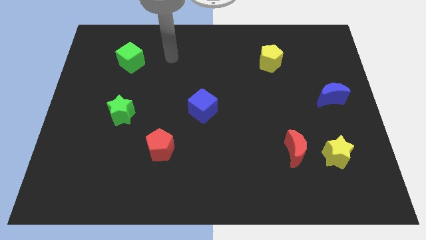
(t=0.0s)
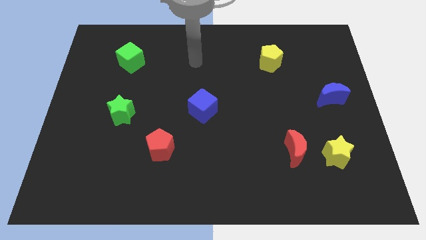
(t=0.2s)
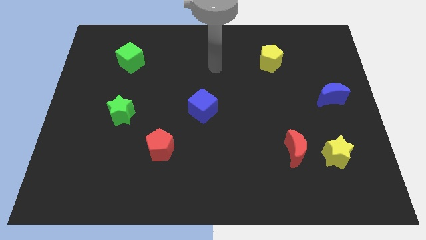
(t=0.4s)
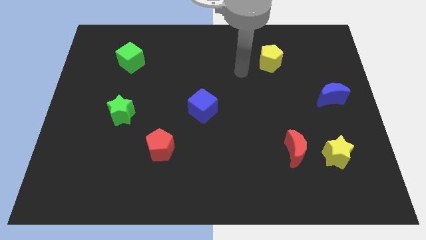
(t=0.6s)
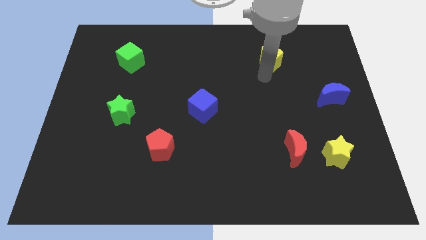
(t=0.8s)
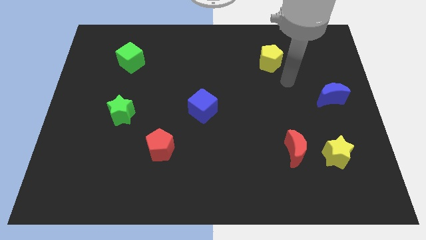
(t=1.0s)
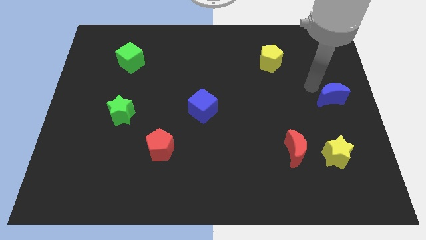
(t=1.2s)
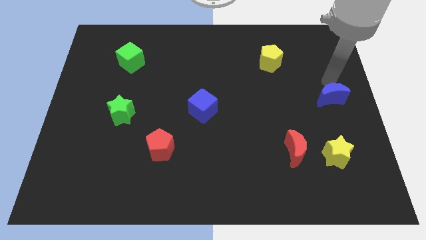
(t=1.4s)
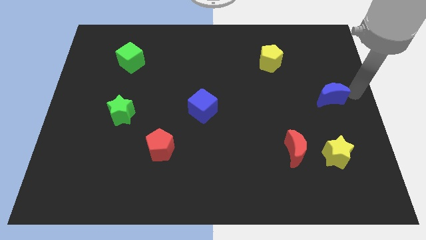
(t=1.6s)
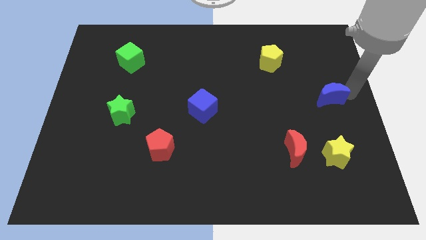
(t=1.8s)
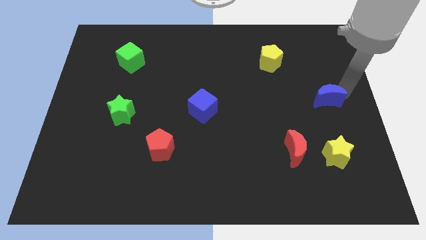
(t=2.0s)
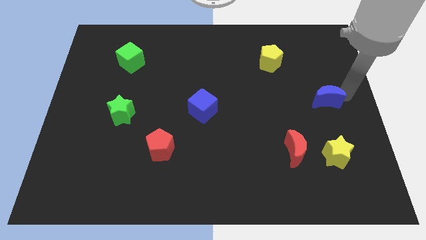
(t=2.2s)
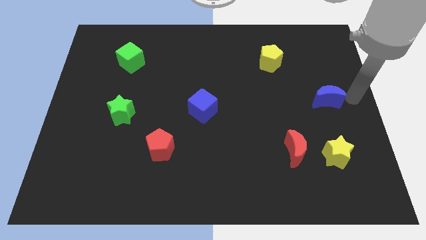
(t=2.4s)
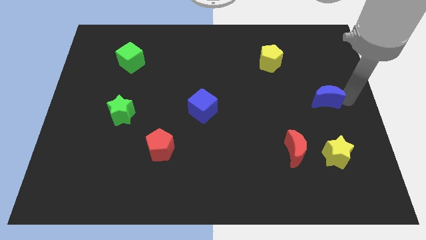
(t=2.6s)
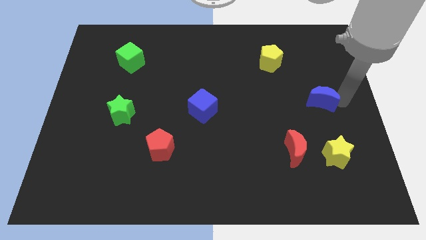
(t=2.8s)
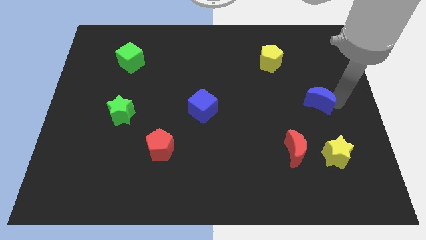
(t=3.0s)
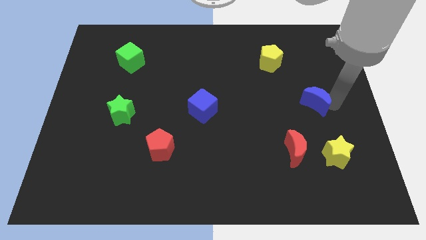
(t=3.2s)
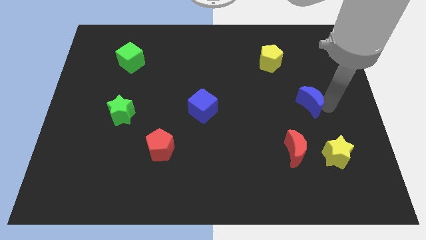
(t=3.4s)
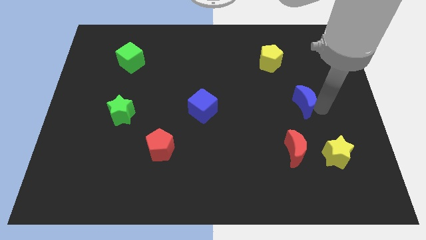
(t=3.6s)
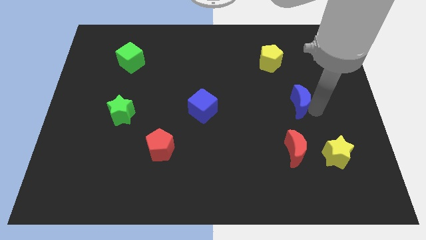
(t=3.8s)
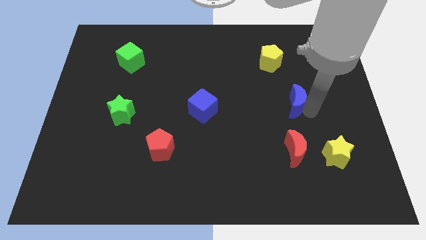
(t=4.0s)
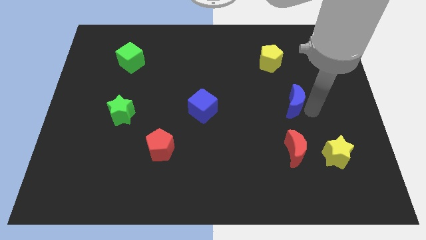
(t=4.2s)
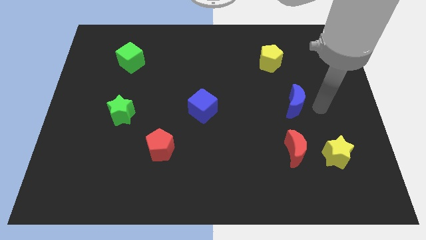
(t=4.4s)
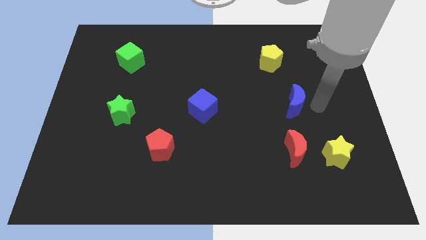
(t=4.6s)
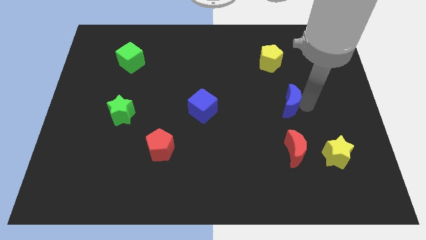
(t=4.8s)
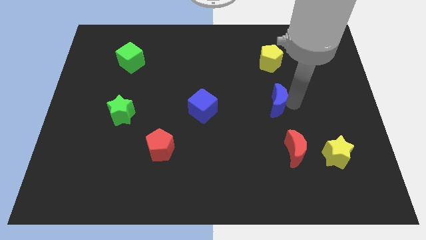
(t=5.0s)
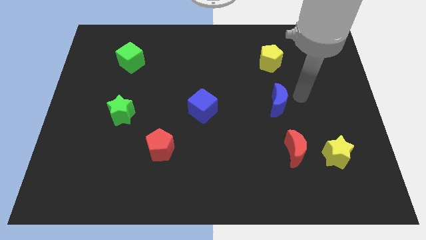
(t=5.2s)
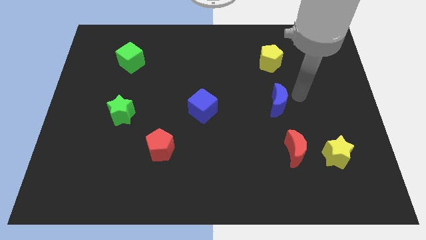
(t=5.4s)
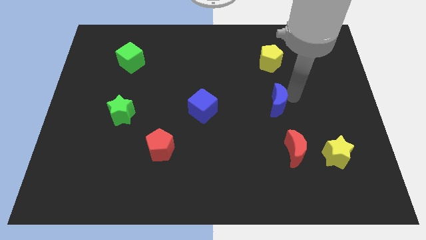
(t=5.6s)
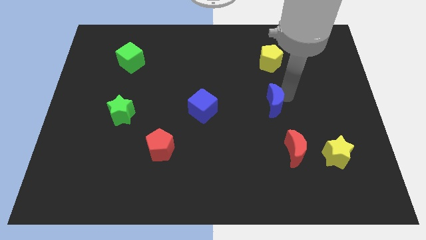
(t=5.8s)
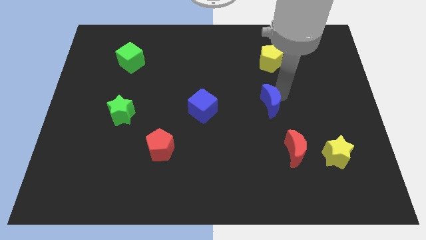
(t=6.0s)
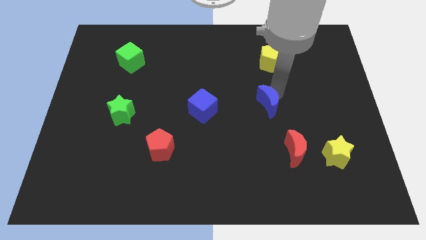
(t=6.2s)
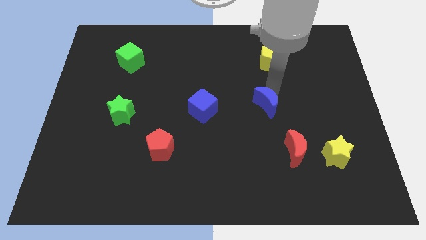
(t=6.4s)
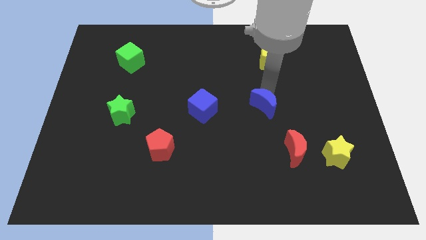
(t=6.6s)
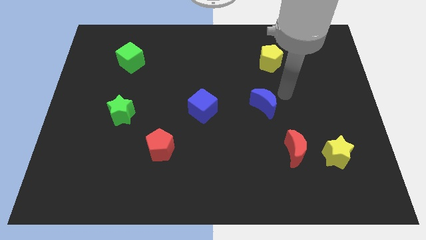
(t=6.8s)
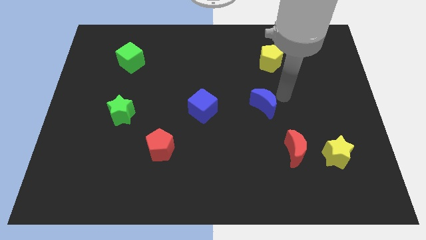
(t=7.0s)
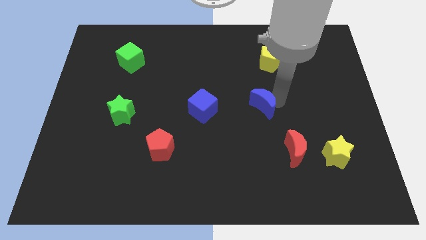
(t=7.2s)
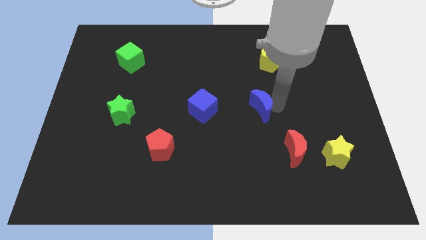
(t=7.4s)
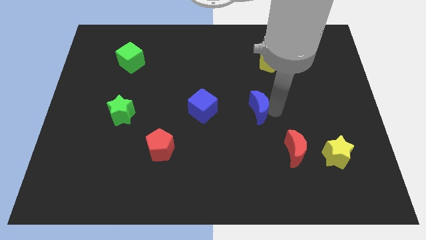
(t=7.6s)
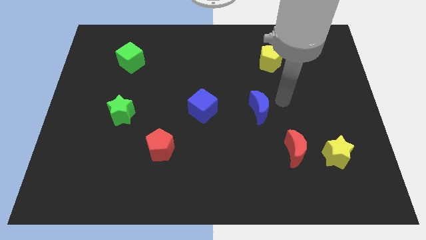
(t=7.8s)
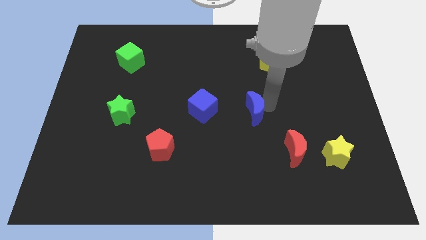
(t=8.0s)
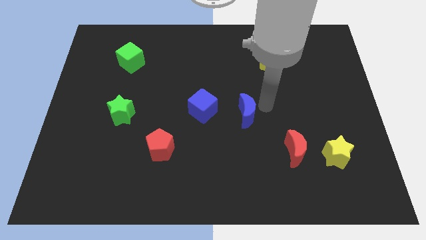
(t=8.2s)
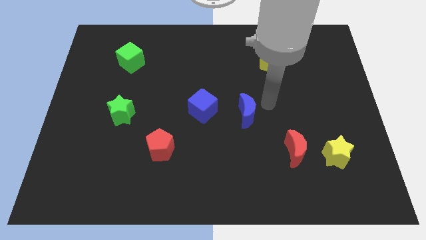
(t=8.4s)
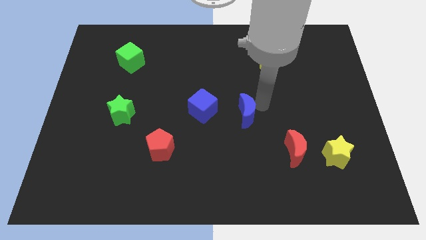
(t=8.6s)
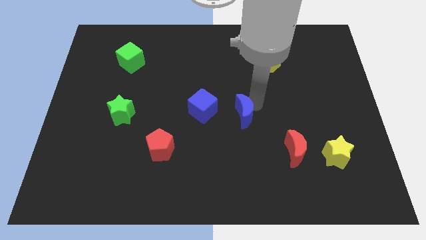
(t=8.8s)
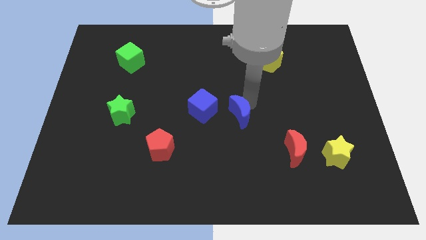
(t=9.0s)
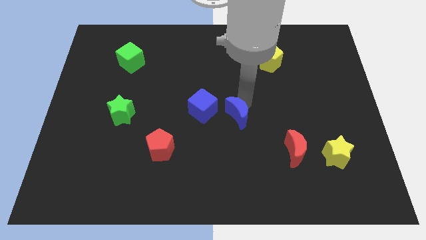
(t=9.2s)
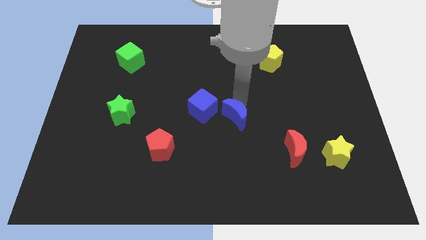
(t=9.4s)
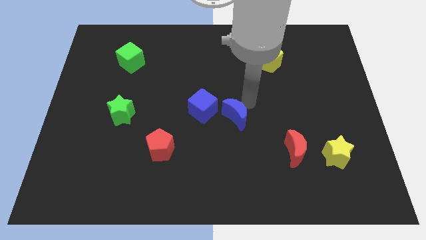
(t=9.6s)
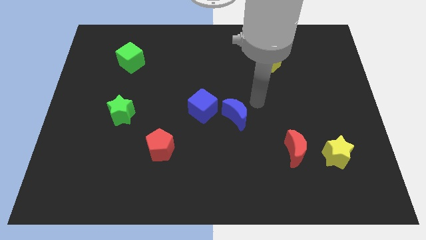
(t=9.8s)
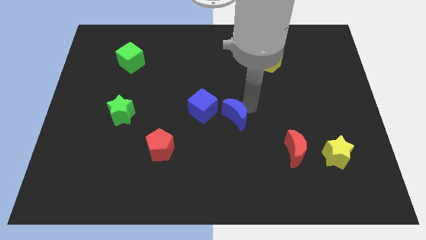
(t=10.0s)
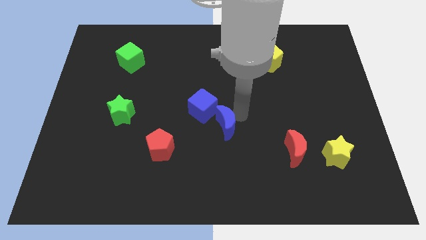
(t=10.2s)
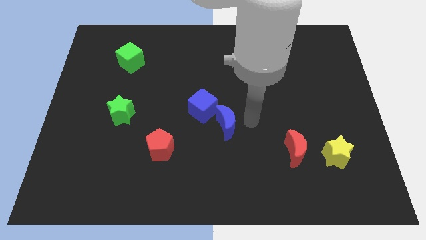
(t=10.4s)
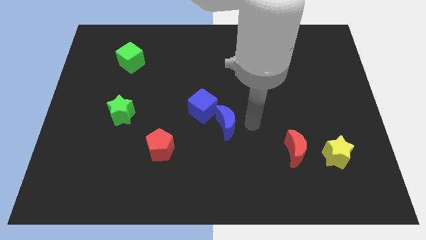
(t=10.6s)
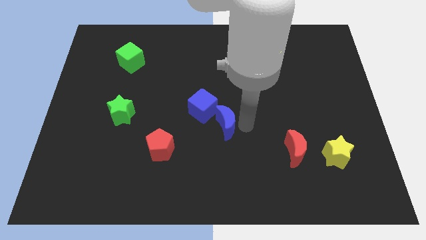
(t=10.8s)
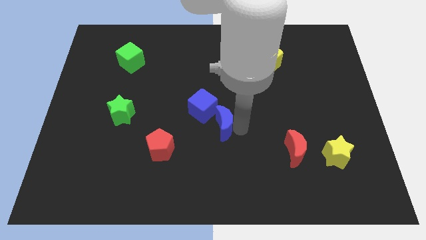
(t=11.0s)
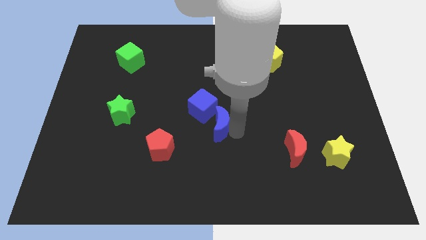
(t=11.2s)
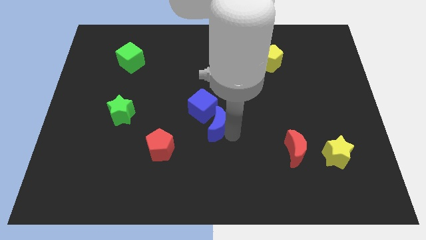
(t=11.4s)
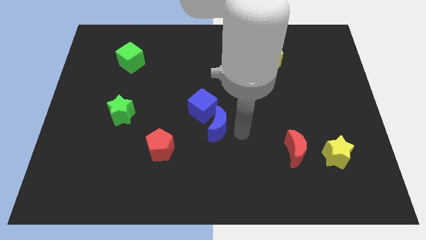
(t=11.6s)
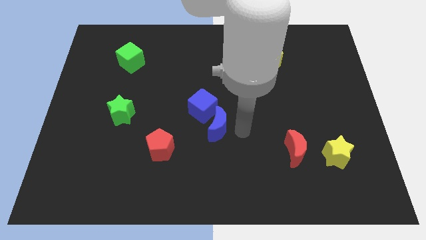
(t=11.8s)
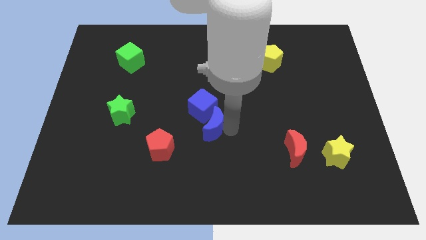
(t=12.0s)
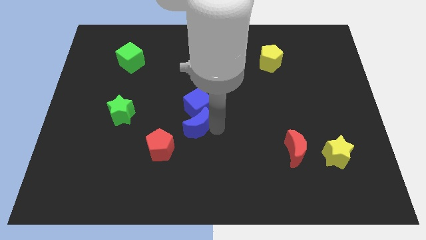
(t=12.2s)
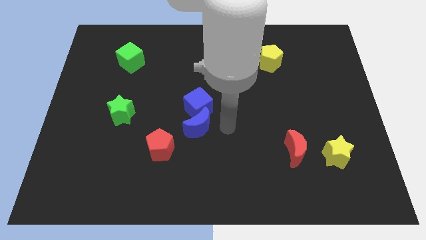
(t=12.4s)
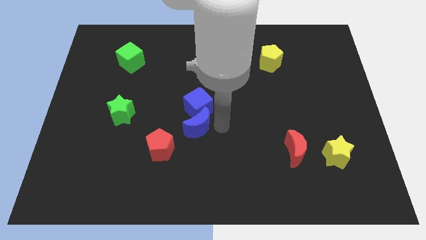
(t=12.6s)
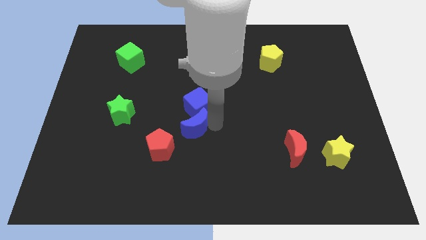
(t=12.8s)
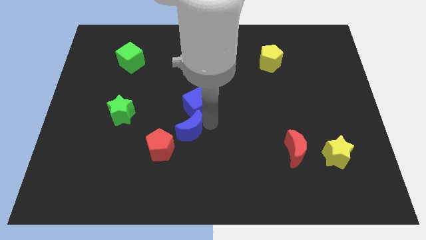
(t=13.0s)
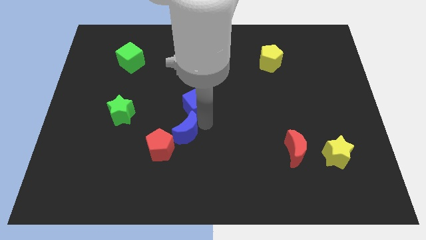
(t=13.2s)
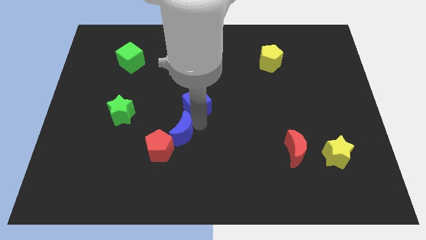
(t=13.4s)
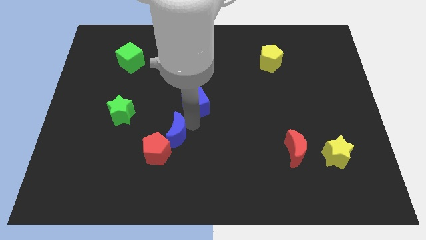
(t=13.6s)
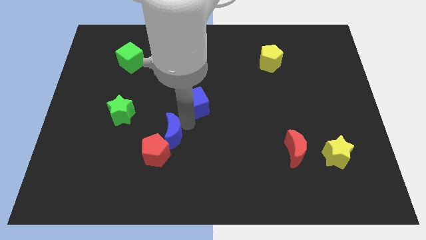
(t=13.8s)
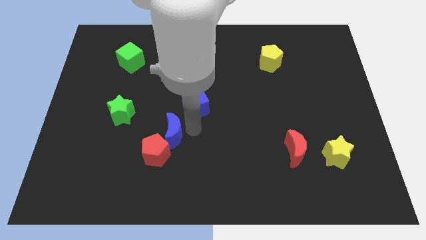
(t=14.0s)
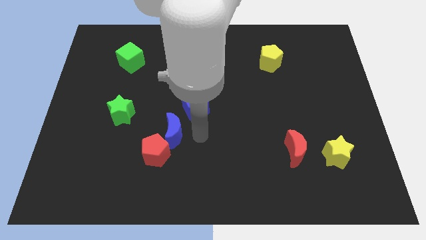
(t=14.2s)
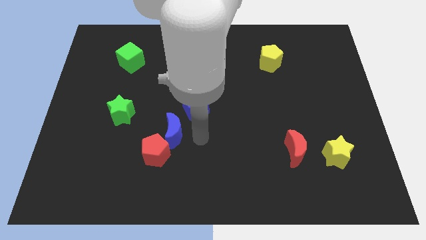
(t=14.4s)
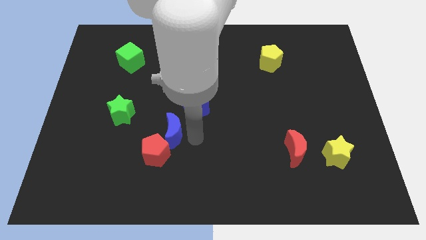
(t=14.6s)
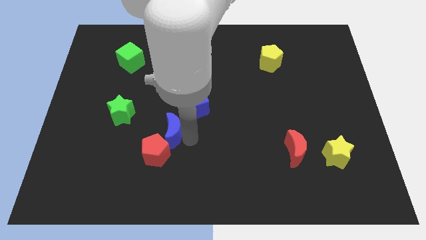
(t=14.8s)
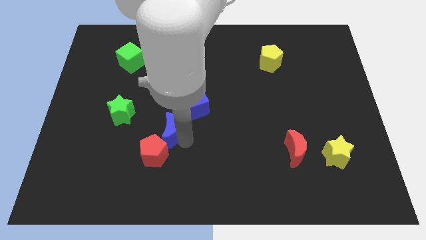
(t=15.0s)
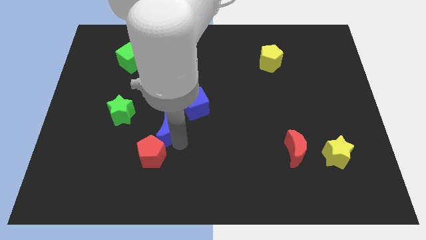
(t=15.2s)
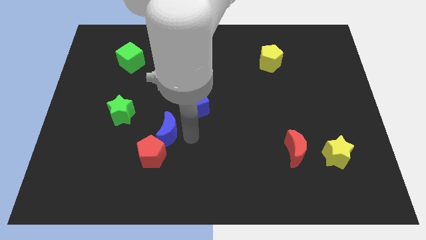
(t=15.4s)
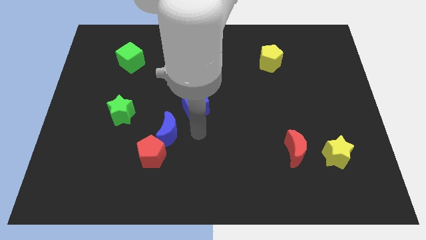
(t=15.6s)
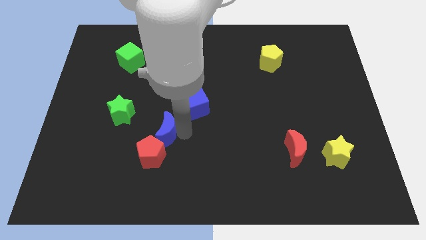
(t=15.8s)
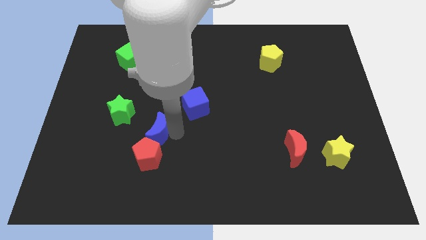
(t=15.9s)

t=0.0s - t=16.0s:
move the blue moon to the bottom right side of the green star
